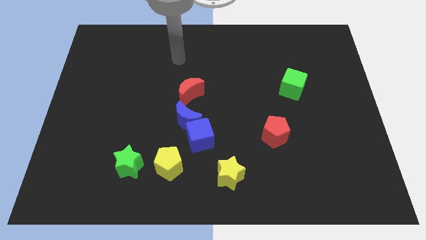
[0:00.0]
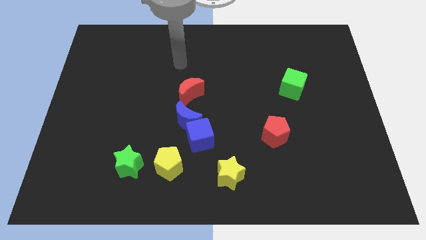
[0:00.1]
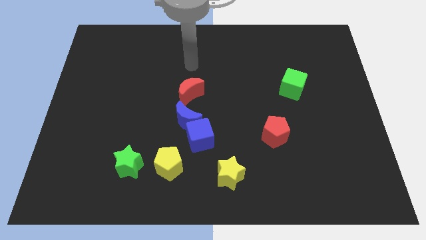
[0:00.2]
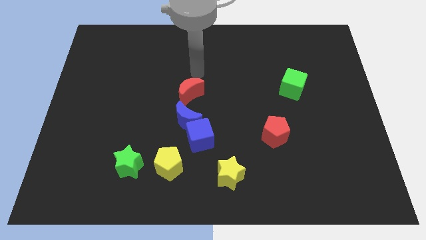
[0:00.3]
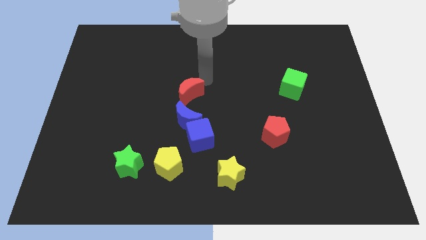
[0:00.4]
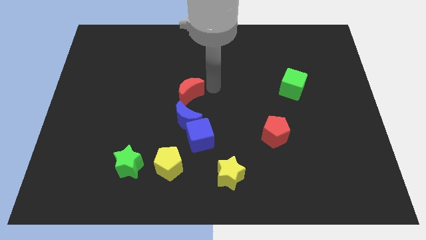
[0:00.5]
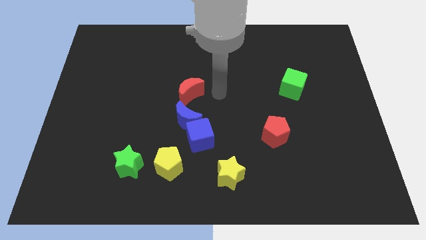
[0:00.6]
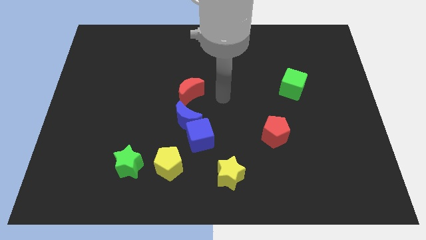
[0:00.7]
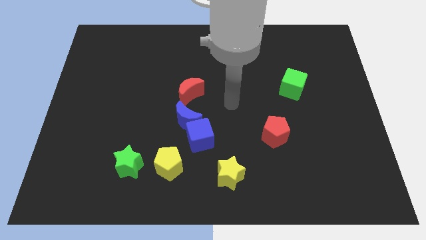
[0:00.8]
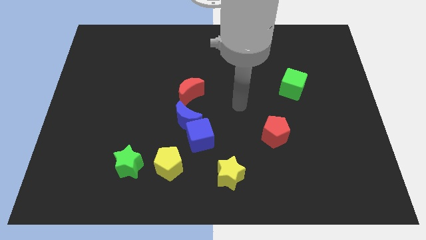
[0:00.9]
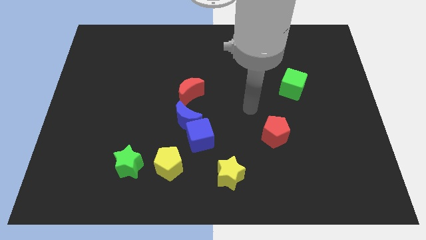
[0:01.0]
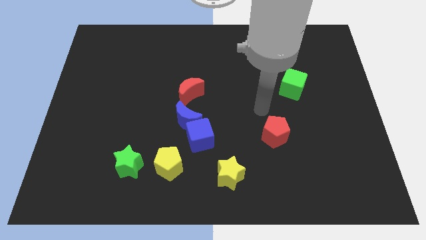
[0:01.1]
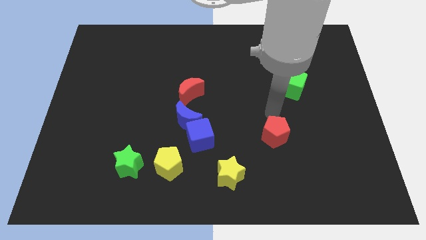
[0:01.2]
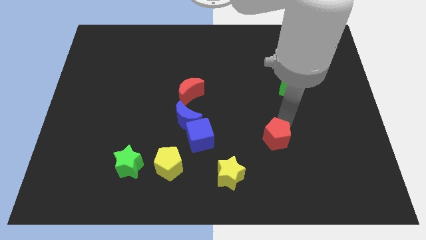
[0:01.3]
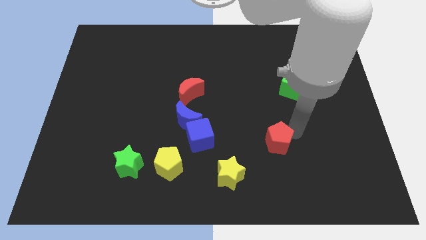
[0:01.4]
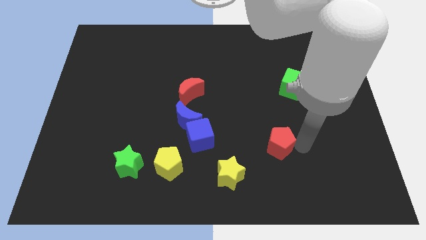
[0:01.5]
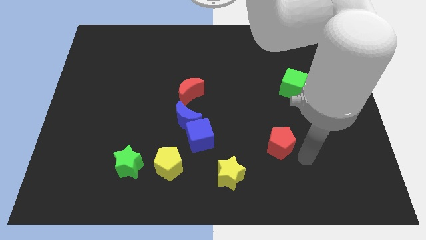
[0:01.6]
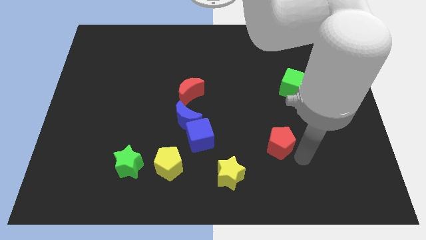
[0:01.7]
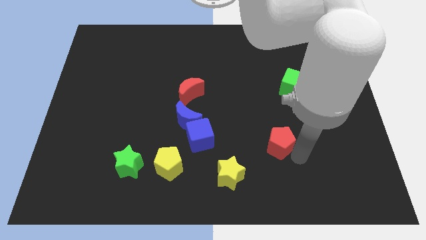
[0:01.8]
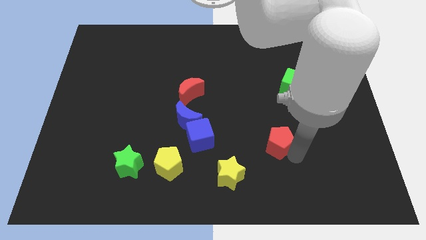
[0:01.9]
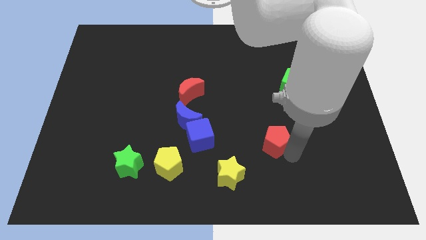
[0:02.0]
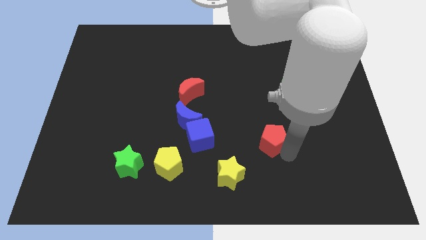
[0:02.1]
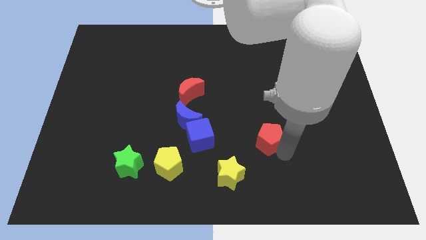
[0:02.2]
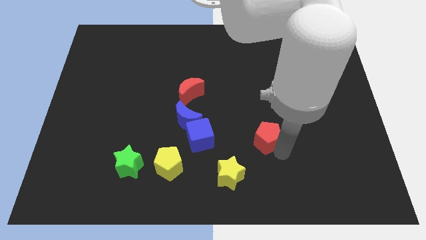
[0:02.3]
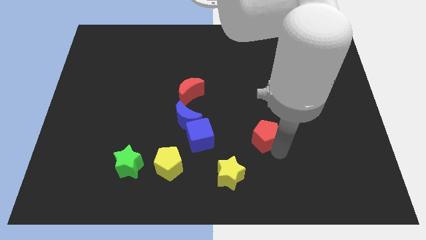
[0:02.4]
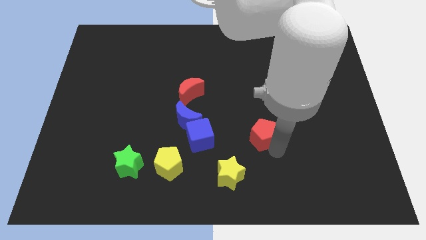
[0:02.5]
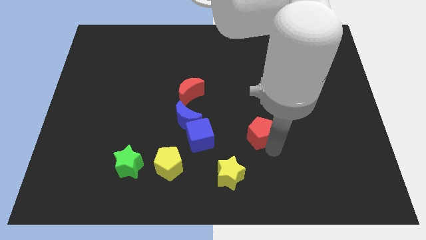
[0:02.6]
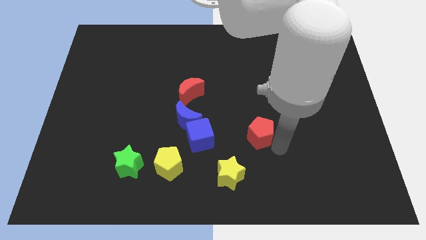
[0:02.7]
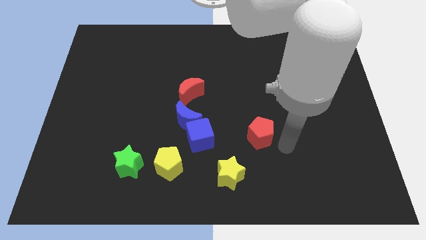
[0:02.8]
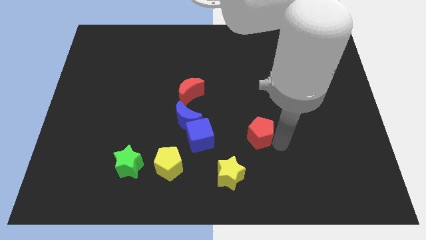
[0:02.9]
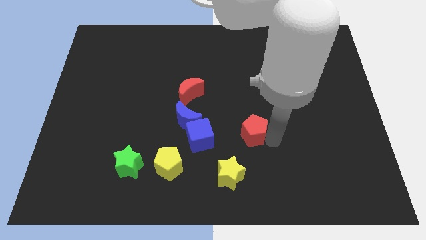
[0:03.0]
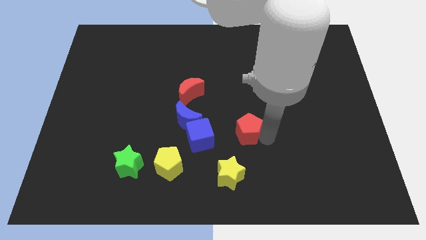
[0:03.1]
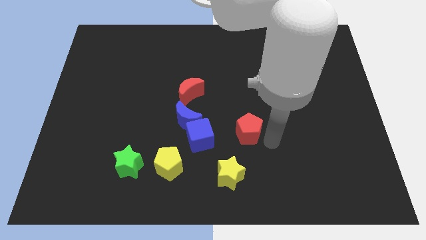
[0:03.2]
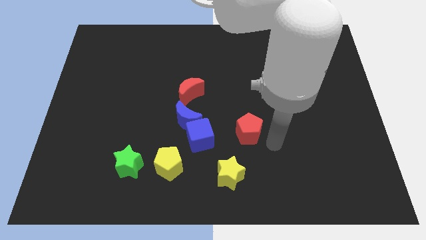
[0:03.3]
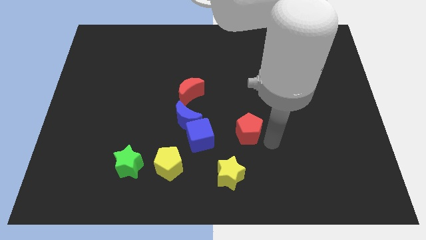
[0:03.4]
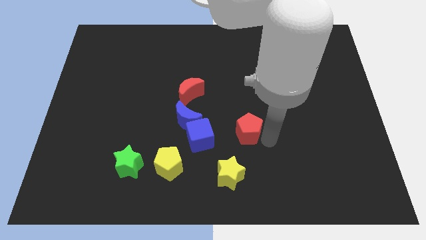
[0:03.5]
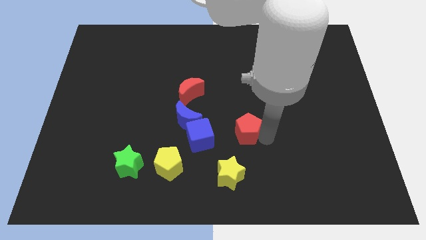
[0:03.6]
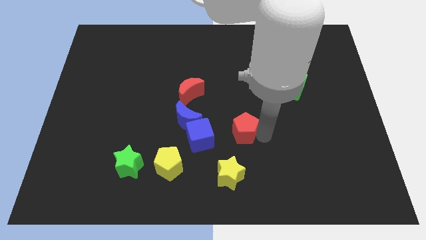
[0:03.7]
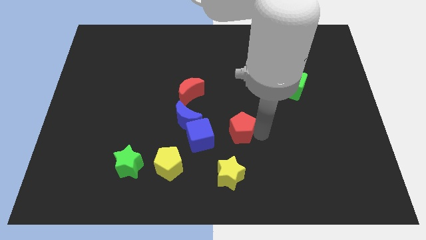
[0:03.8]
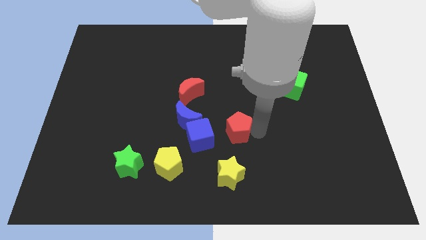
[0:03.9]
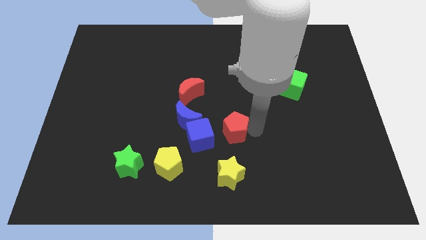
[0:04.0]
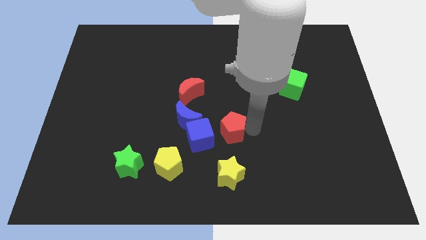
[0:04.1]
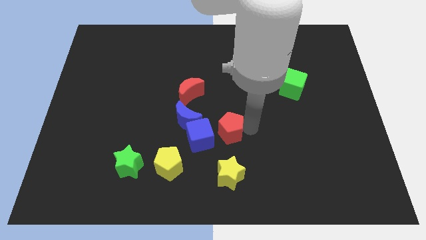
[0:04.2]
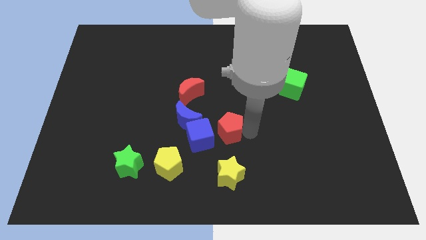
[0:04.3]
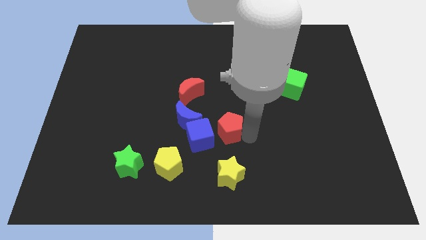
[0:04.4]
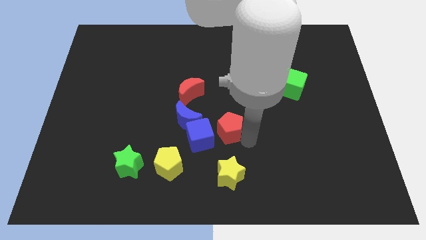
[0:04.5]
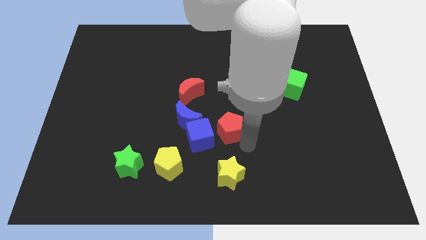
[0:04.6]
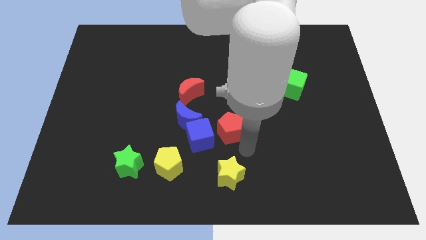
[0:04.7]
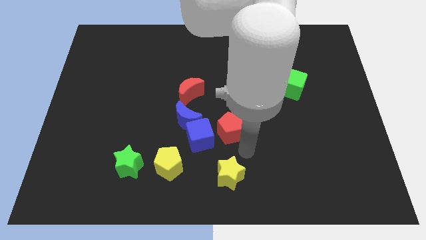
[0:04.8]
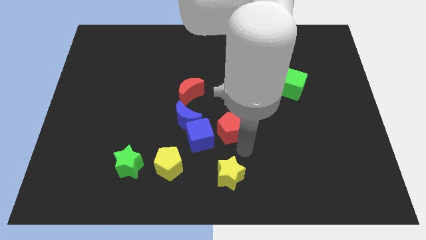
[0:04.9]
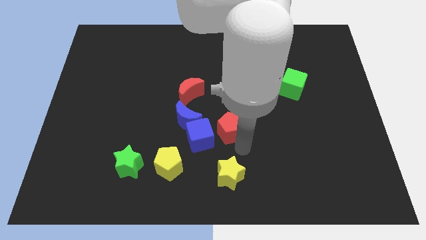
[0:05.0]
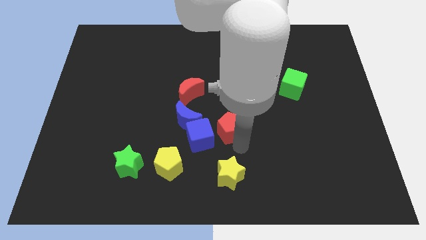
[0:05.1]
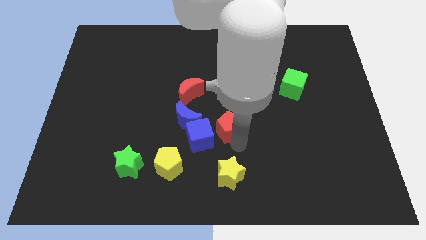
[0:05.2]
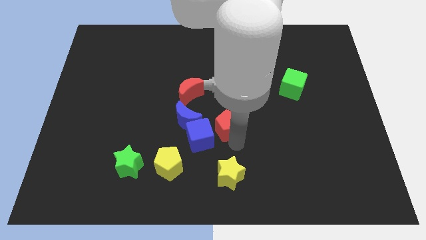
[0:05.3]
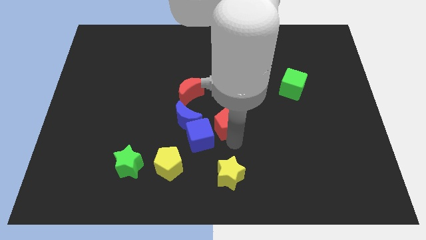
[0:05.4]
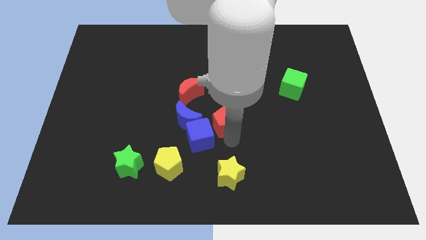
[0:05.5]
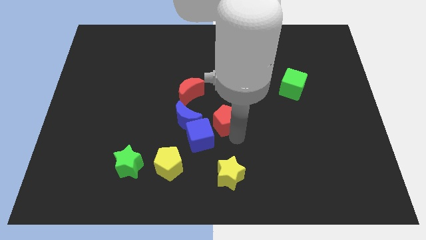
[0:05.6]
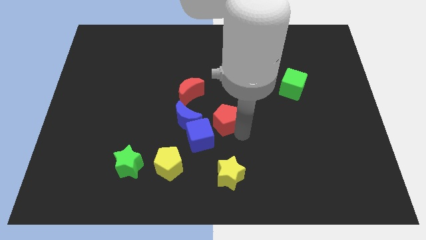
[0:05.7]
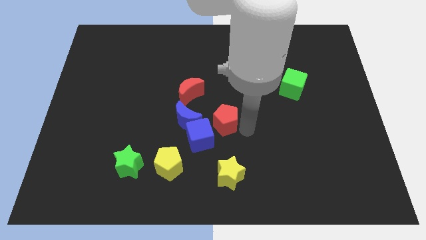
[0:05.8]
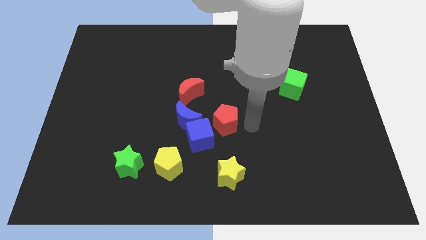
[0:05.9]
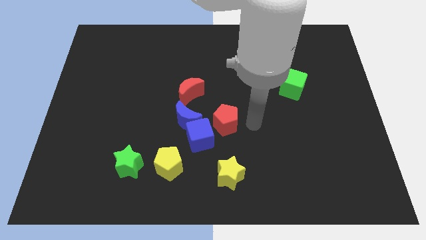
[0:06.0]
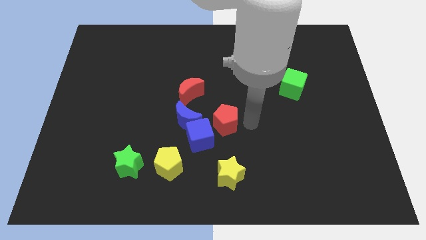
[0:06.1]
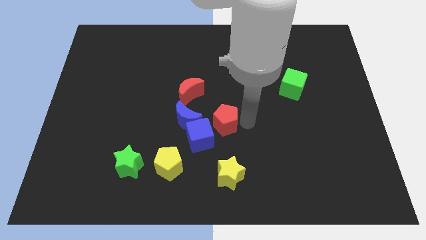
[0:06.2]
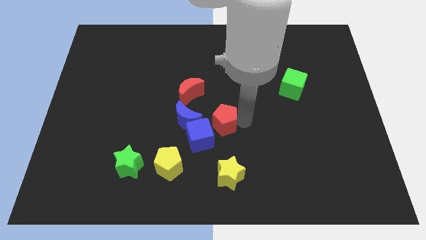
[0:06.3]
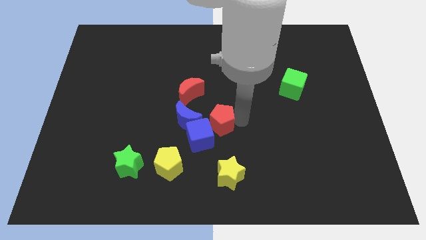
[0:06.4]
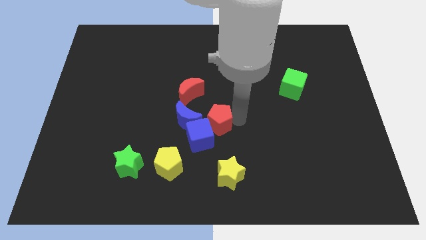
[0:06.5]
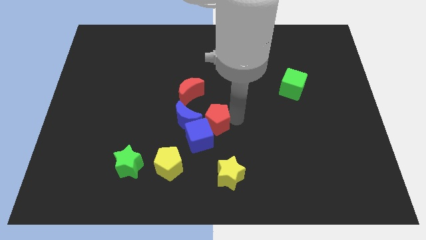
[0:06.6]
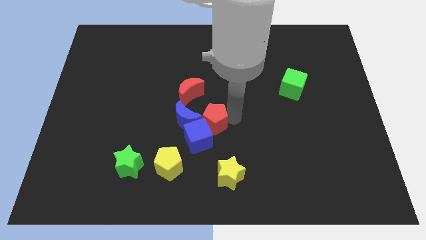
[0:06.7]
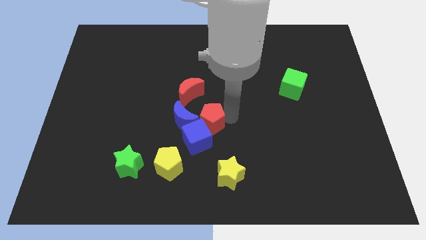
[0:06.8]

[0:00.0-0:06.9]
move the red pentagon close to the blue moon

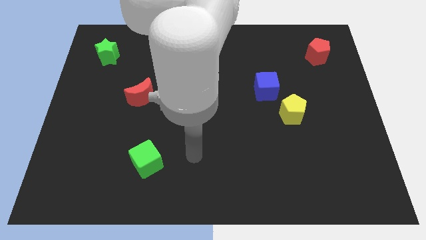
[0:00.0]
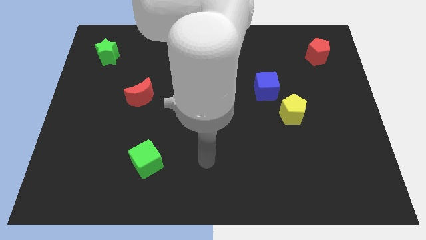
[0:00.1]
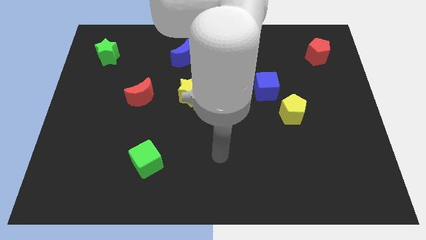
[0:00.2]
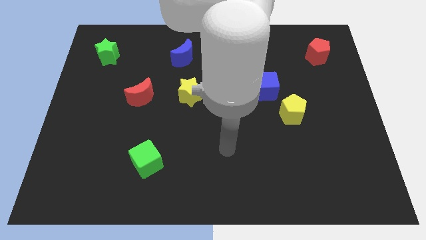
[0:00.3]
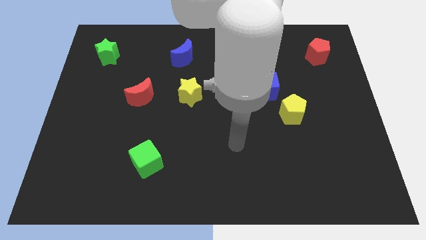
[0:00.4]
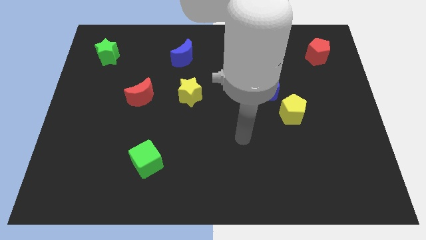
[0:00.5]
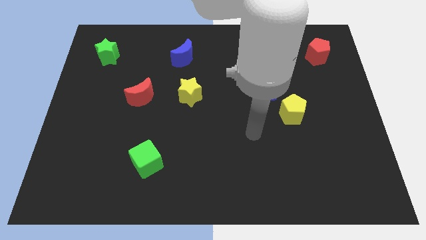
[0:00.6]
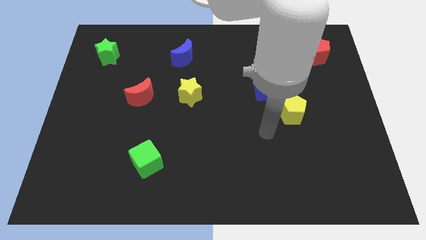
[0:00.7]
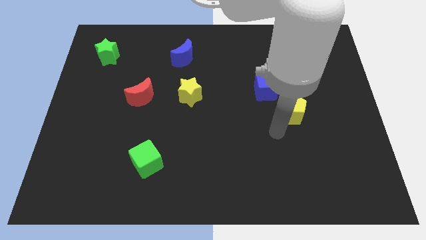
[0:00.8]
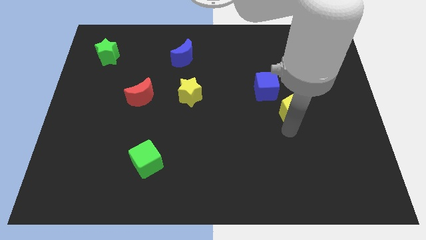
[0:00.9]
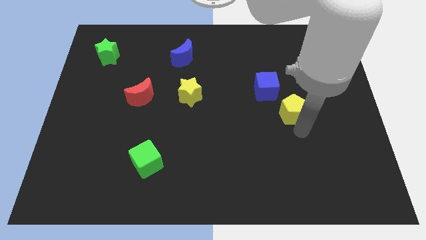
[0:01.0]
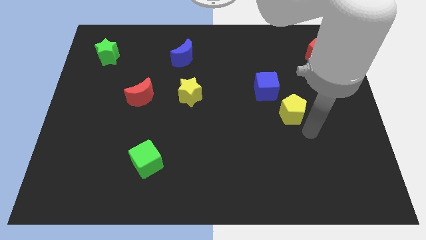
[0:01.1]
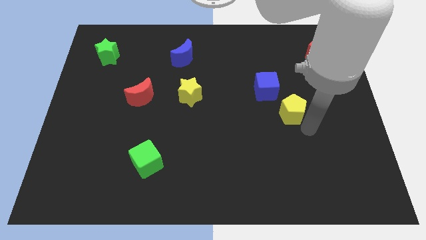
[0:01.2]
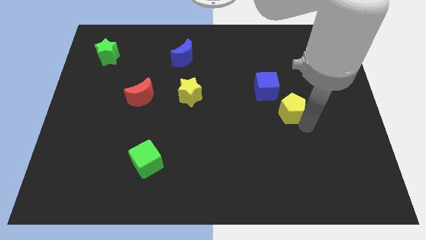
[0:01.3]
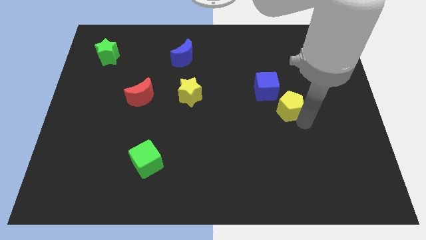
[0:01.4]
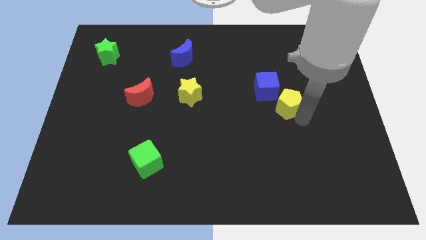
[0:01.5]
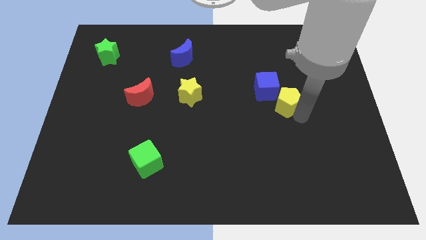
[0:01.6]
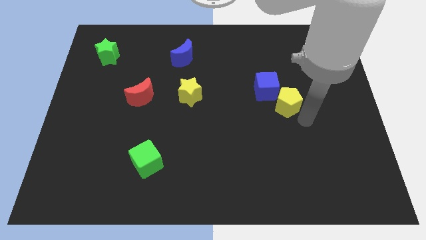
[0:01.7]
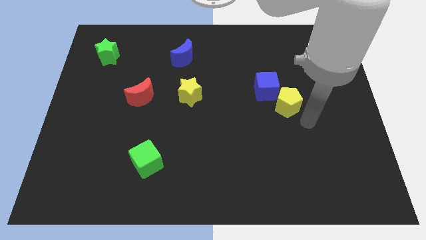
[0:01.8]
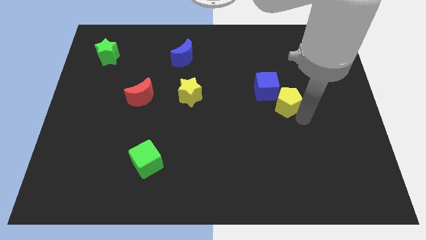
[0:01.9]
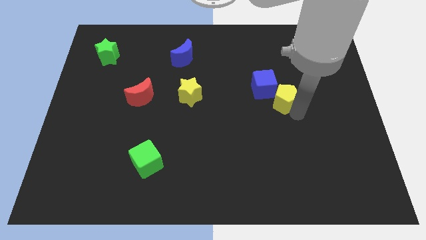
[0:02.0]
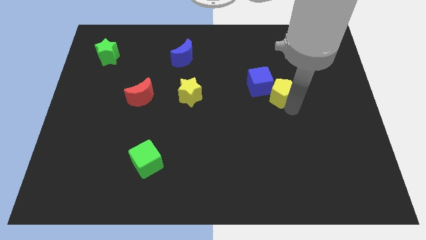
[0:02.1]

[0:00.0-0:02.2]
slide the yellow pentagon to the blue cube
